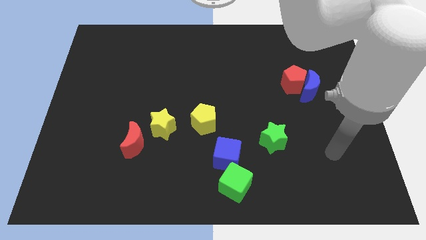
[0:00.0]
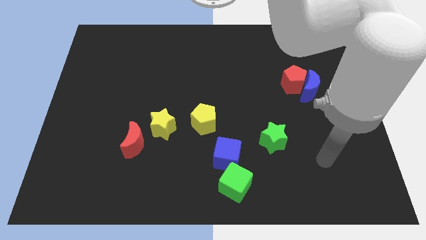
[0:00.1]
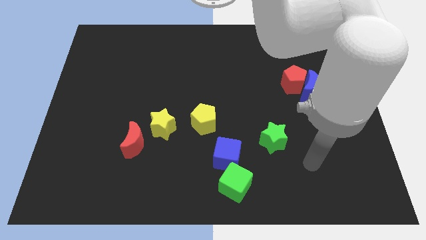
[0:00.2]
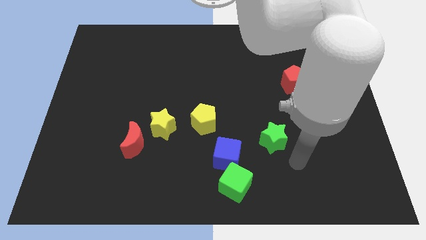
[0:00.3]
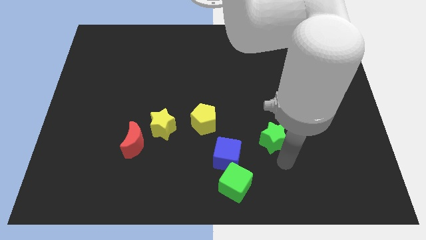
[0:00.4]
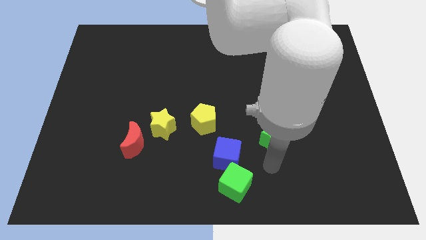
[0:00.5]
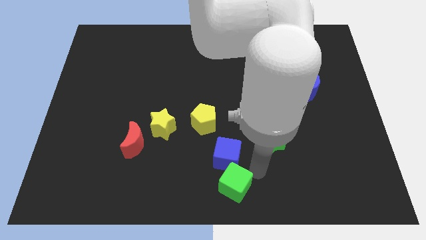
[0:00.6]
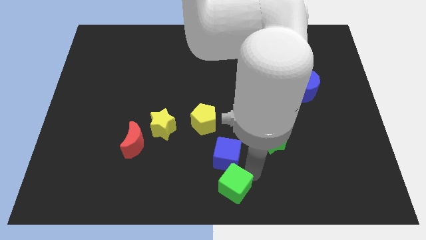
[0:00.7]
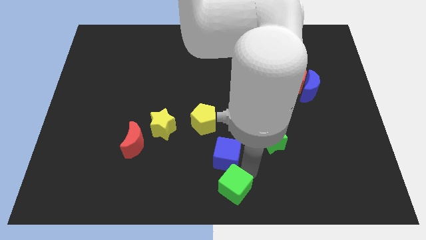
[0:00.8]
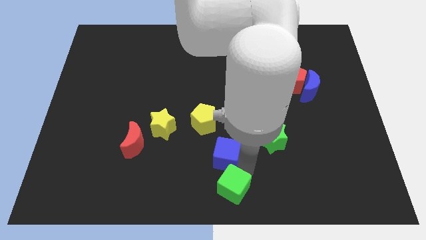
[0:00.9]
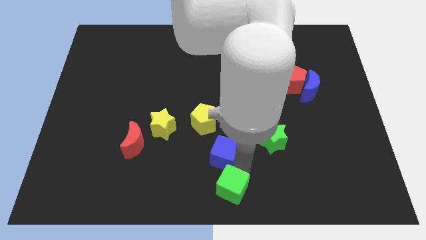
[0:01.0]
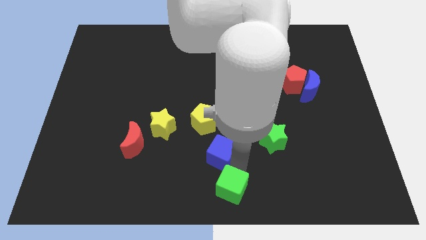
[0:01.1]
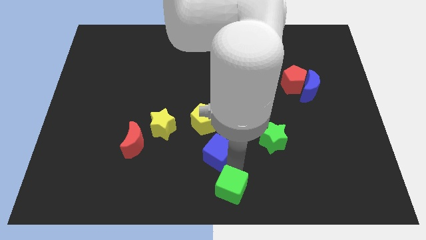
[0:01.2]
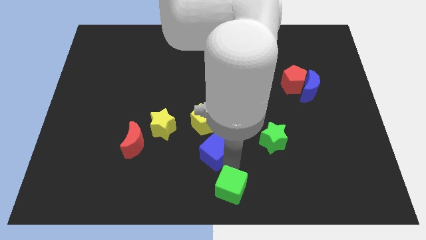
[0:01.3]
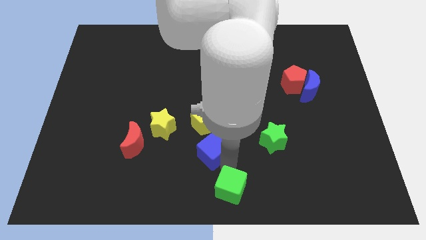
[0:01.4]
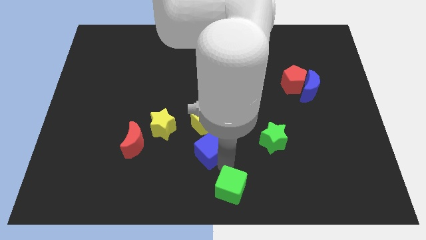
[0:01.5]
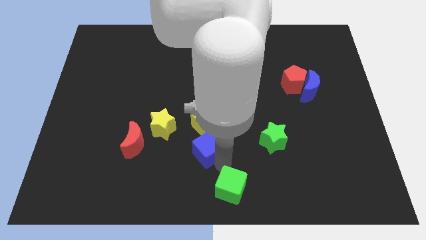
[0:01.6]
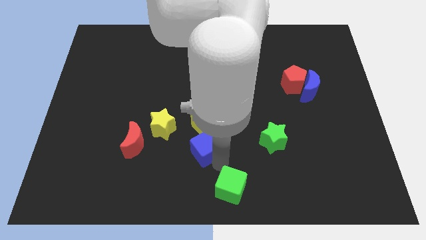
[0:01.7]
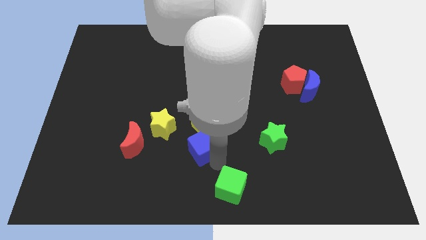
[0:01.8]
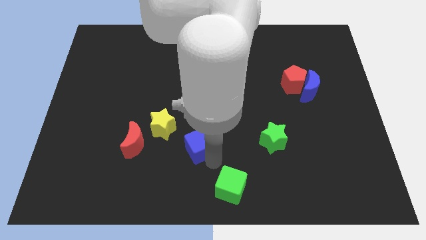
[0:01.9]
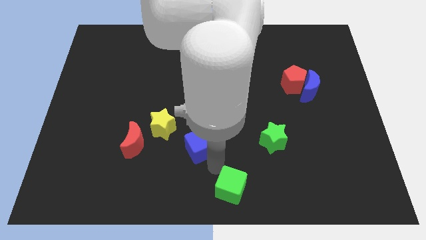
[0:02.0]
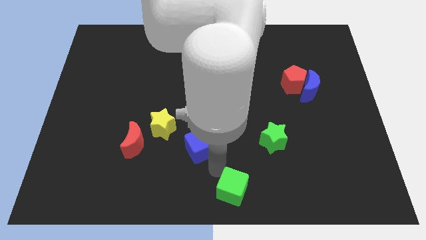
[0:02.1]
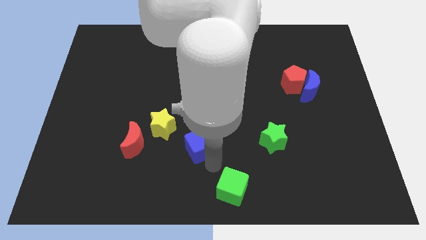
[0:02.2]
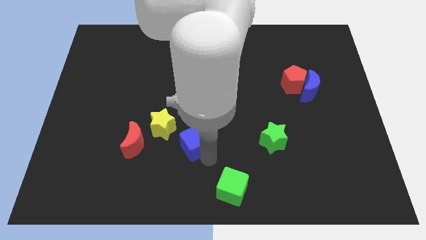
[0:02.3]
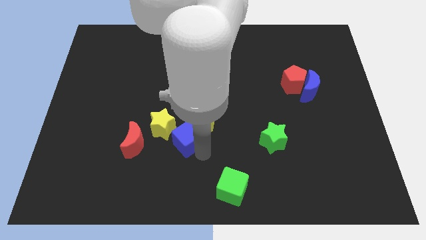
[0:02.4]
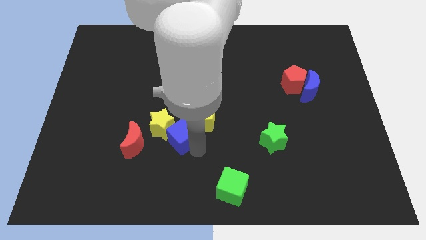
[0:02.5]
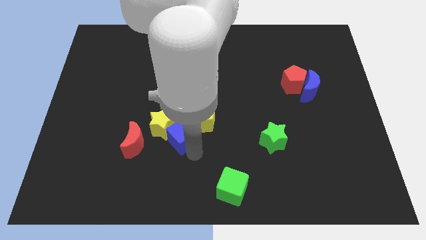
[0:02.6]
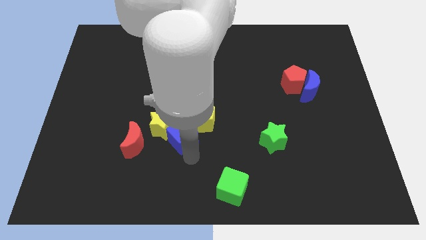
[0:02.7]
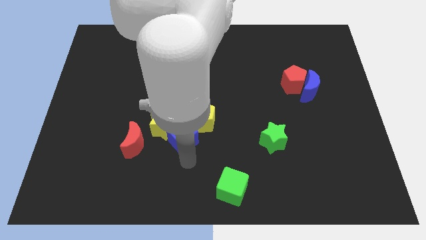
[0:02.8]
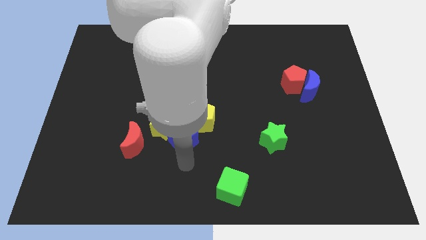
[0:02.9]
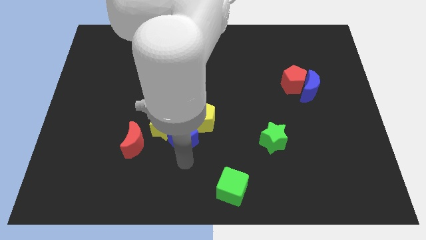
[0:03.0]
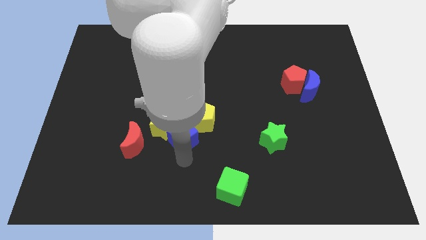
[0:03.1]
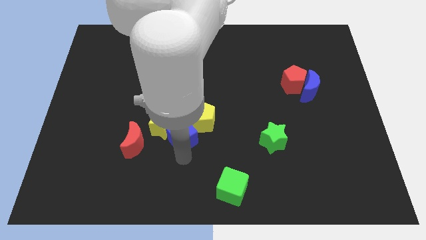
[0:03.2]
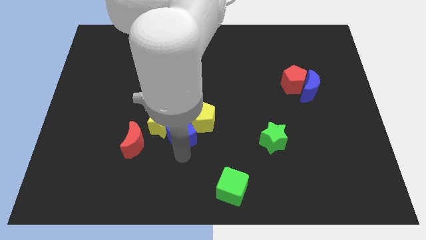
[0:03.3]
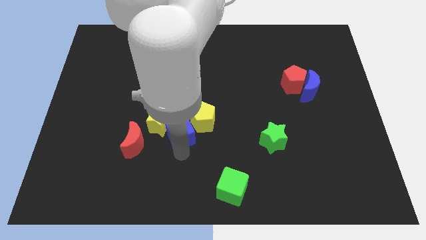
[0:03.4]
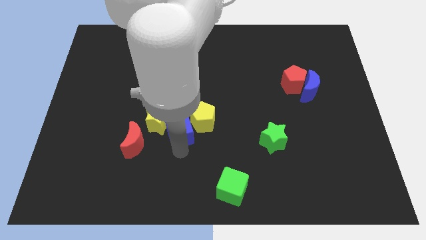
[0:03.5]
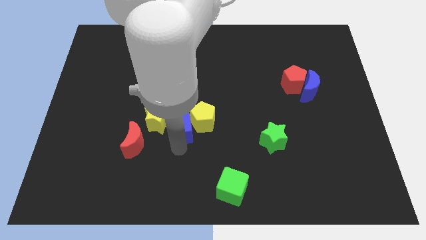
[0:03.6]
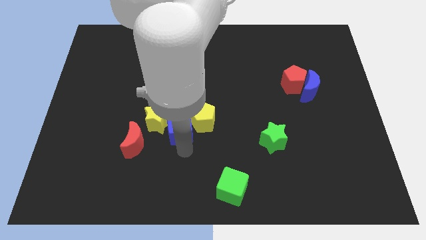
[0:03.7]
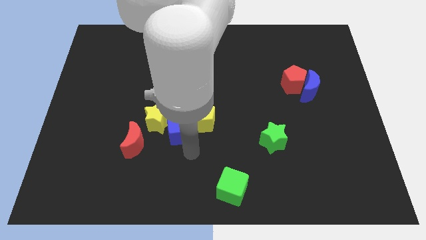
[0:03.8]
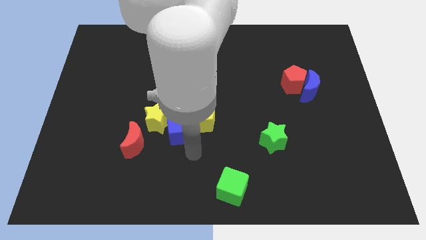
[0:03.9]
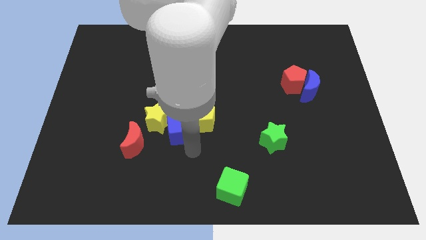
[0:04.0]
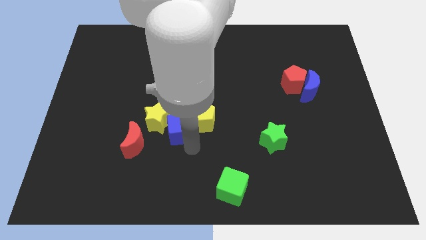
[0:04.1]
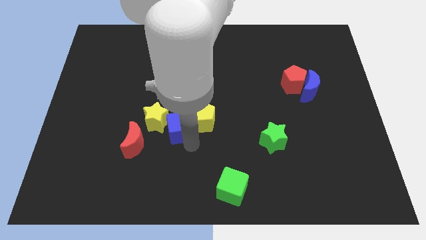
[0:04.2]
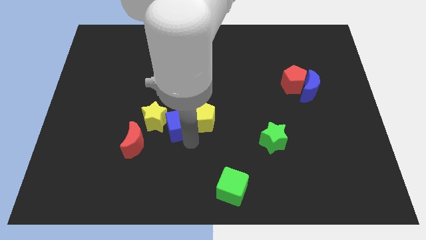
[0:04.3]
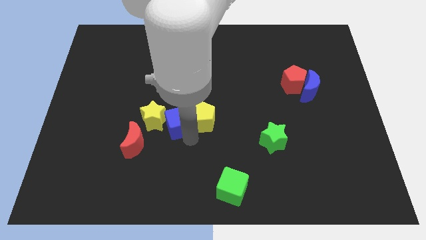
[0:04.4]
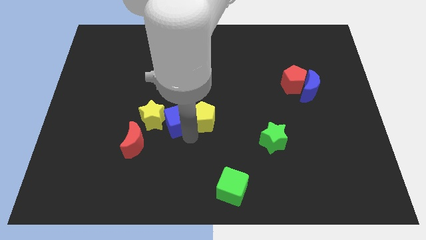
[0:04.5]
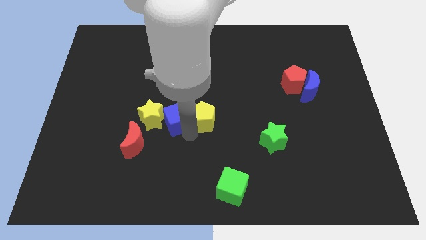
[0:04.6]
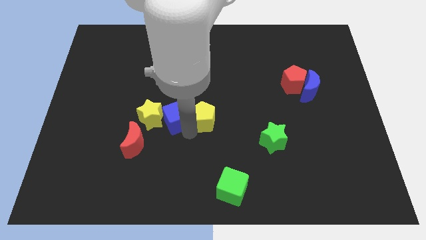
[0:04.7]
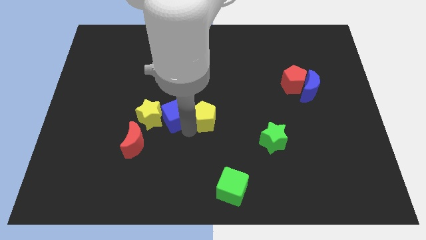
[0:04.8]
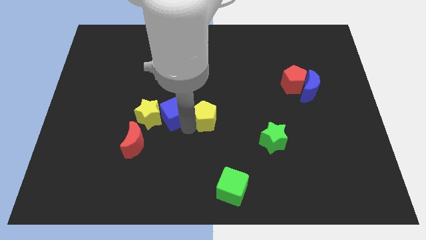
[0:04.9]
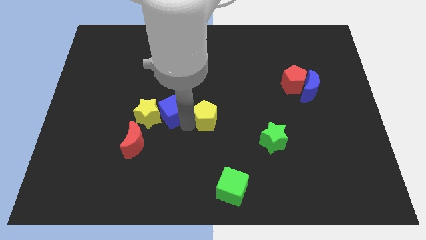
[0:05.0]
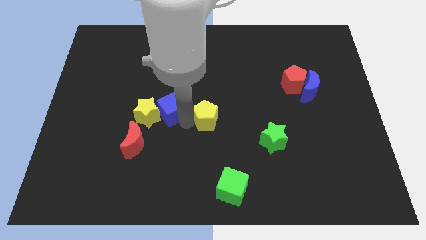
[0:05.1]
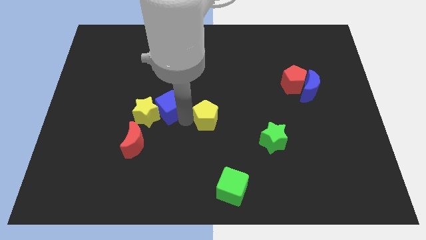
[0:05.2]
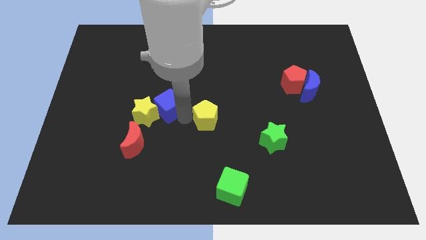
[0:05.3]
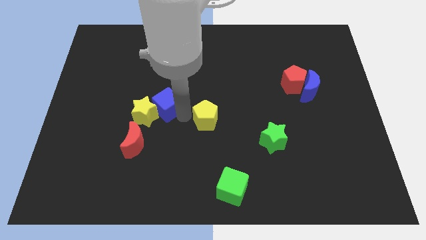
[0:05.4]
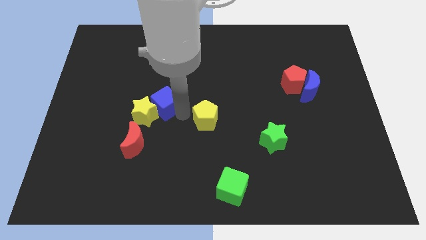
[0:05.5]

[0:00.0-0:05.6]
slide the blue cube diagonally upwards and to the left

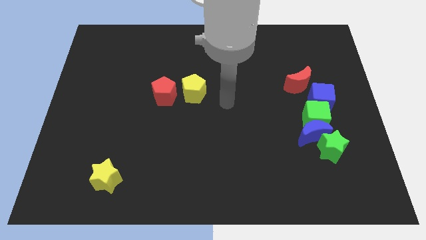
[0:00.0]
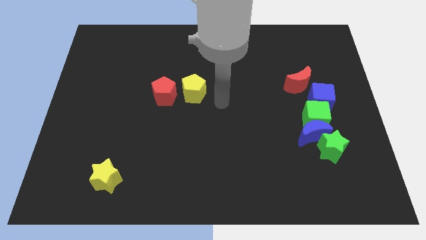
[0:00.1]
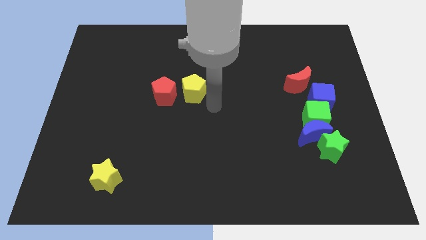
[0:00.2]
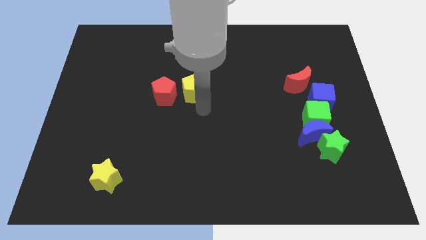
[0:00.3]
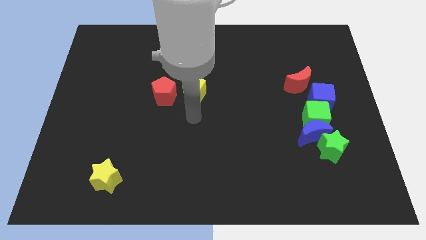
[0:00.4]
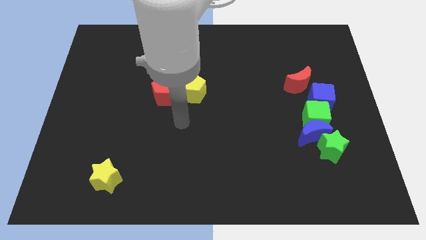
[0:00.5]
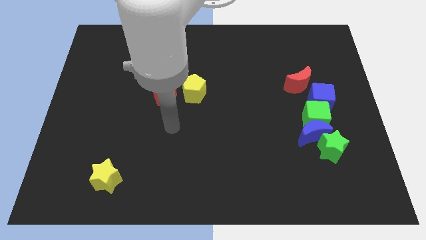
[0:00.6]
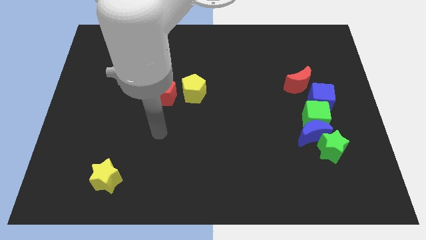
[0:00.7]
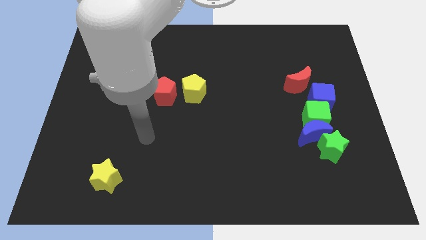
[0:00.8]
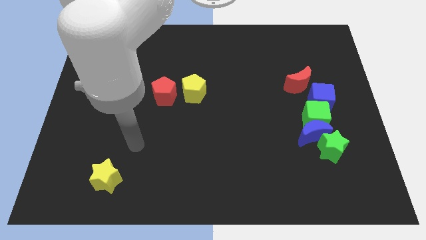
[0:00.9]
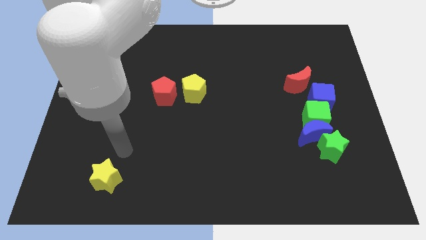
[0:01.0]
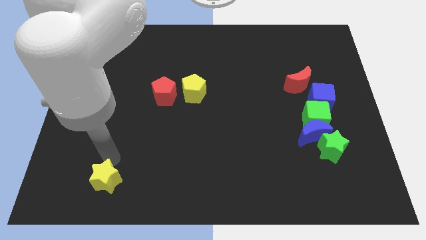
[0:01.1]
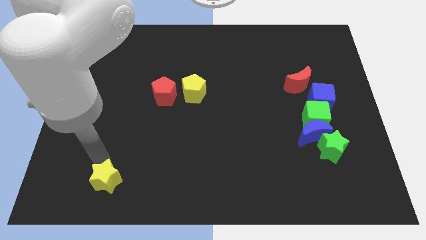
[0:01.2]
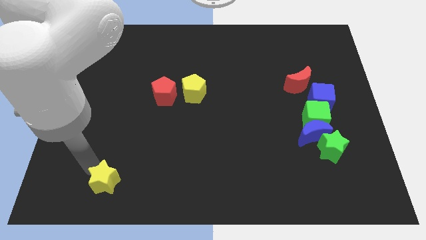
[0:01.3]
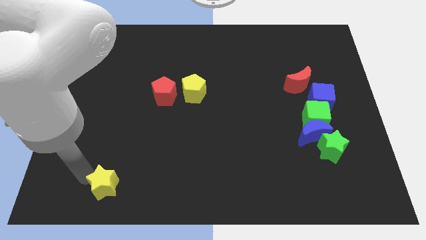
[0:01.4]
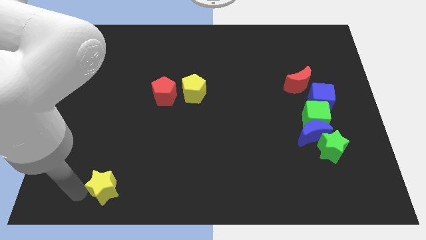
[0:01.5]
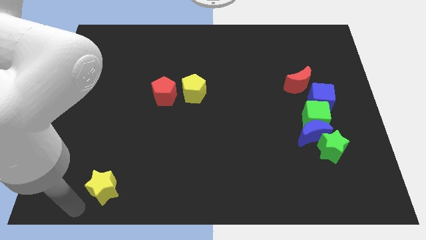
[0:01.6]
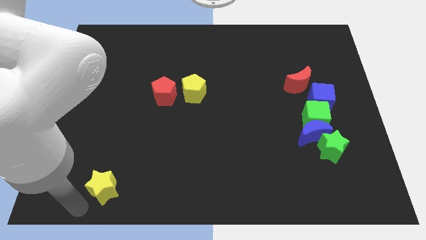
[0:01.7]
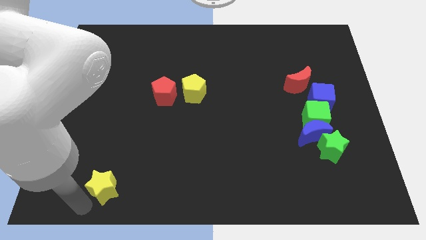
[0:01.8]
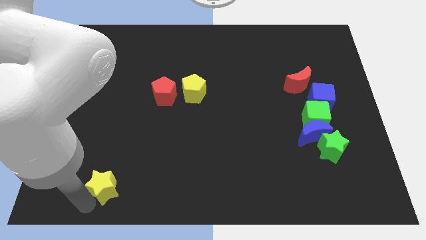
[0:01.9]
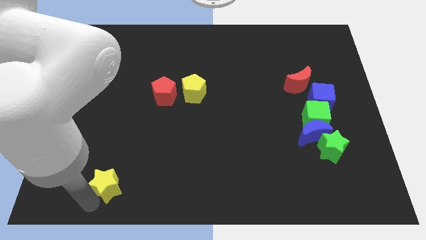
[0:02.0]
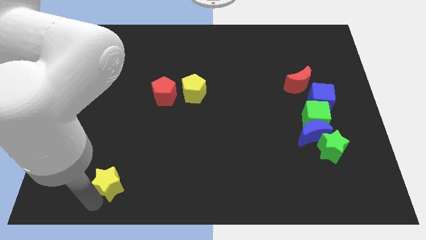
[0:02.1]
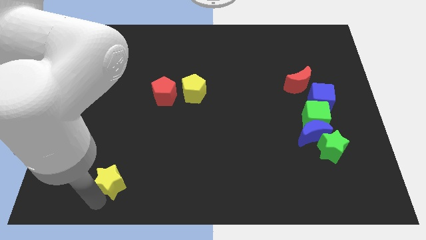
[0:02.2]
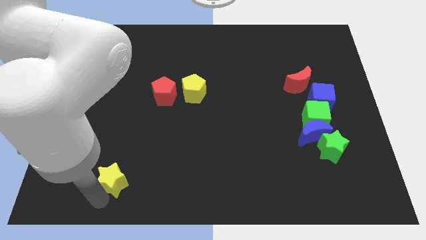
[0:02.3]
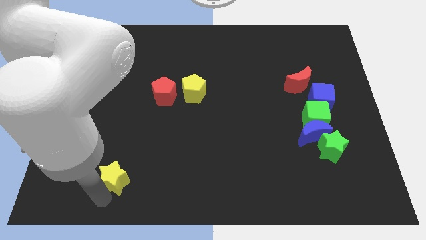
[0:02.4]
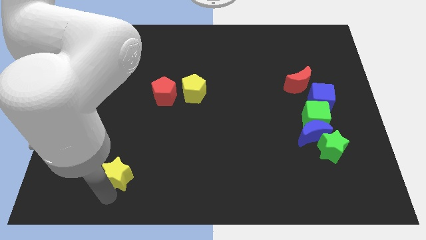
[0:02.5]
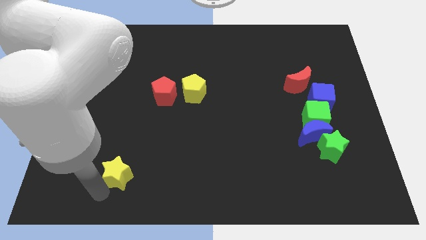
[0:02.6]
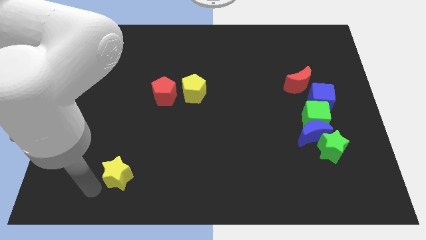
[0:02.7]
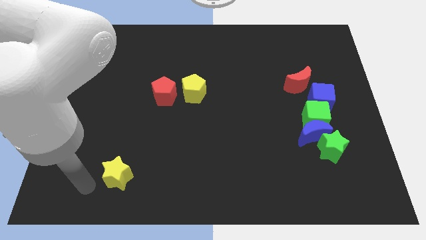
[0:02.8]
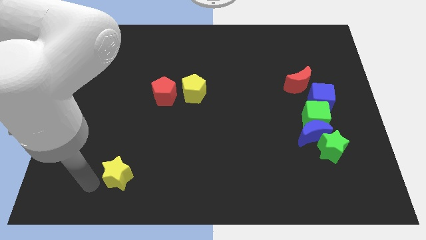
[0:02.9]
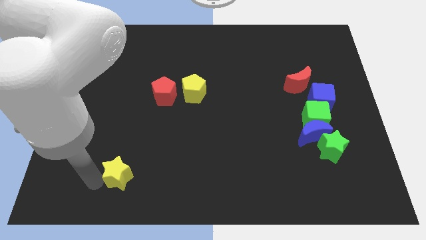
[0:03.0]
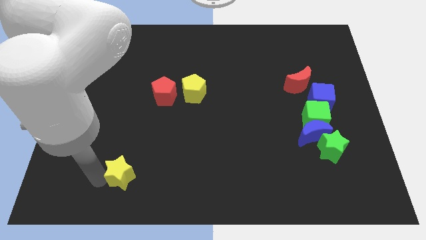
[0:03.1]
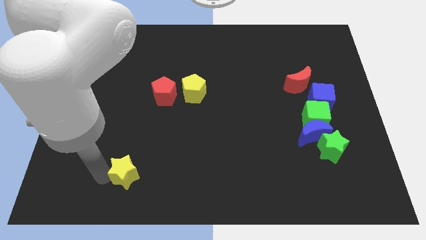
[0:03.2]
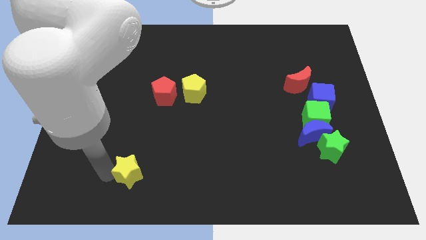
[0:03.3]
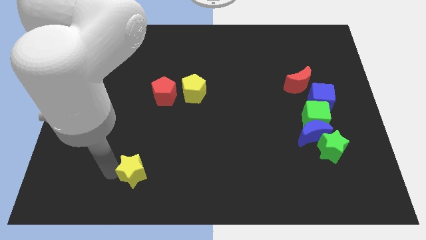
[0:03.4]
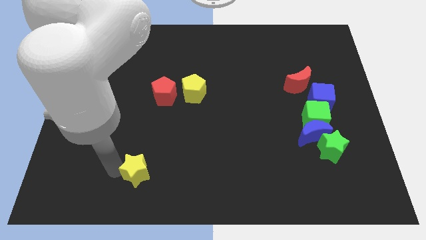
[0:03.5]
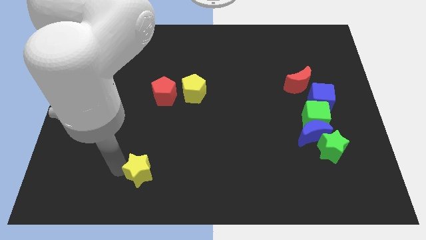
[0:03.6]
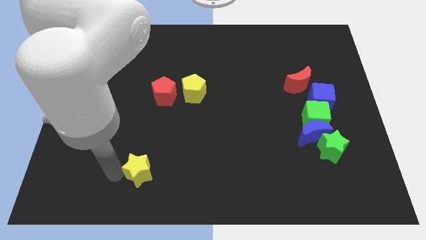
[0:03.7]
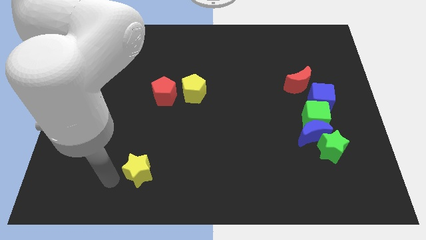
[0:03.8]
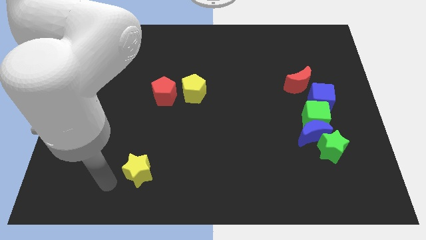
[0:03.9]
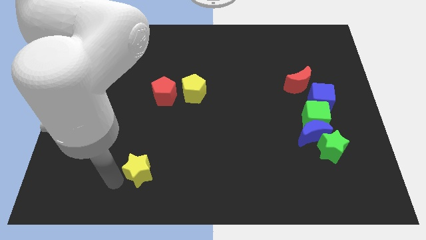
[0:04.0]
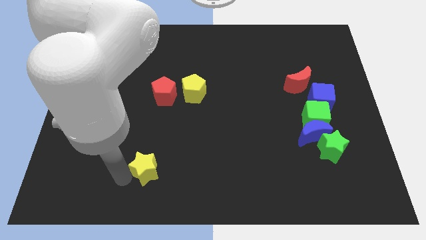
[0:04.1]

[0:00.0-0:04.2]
slide the yellow star to the right a bit
